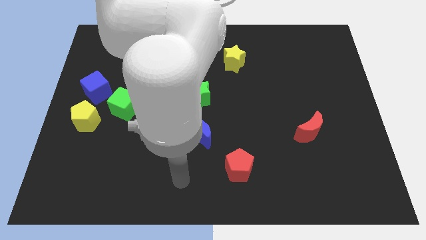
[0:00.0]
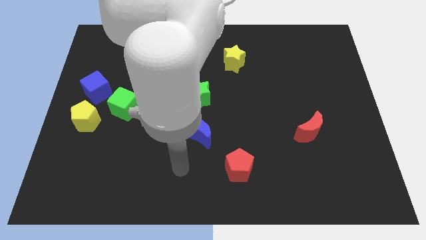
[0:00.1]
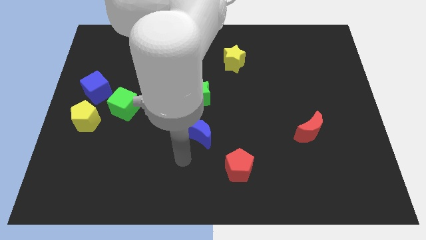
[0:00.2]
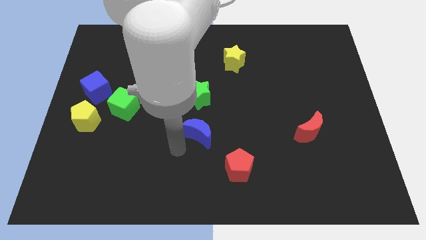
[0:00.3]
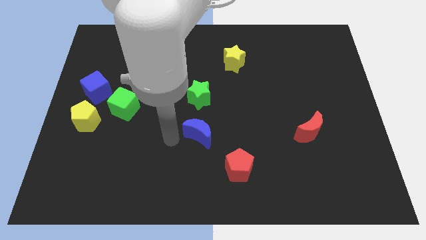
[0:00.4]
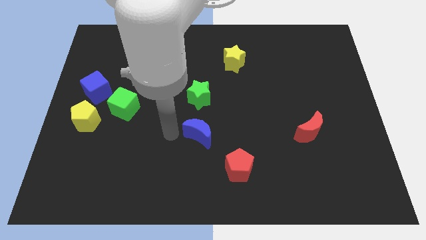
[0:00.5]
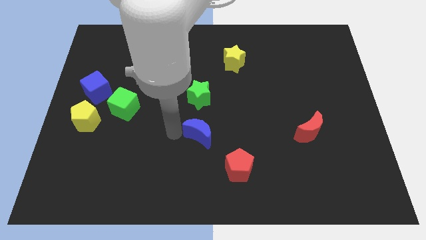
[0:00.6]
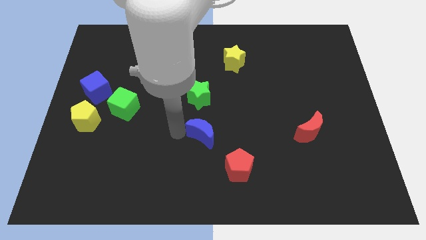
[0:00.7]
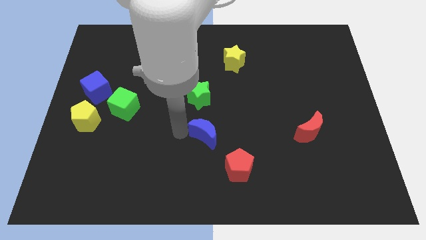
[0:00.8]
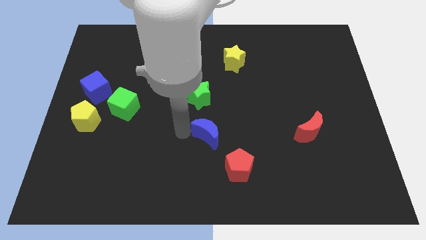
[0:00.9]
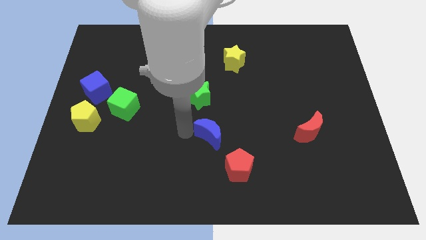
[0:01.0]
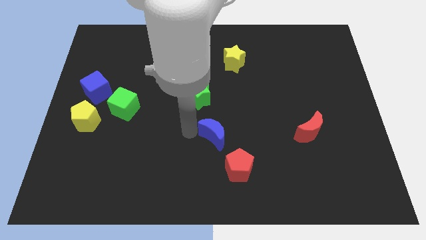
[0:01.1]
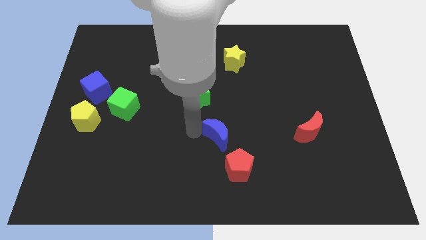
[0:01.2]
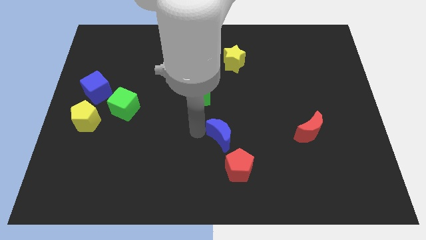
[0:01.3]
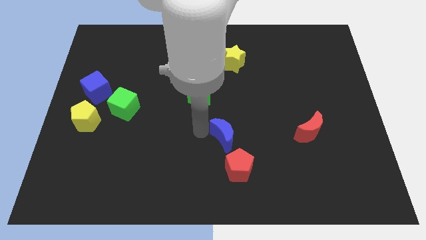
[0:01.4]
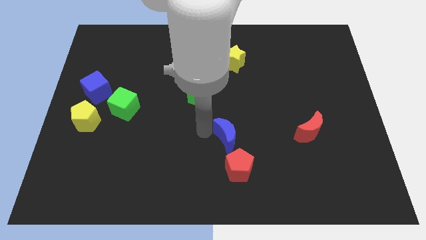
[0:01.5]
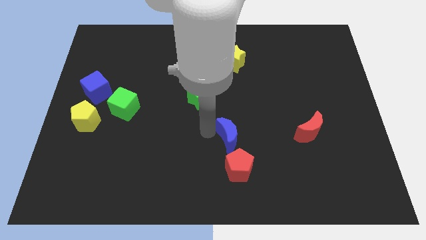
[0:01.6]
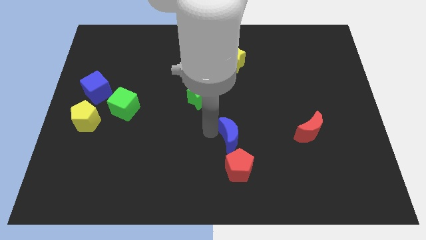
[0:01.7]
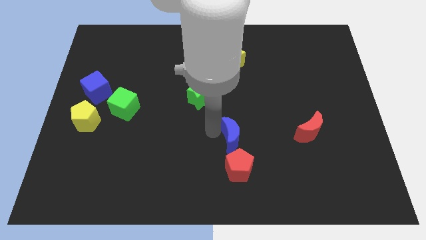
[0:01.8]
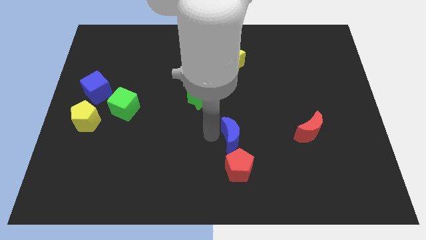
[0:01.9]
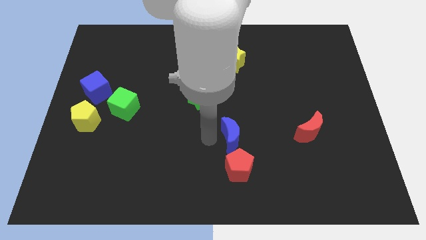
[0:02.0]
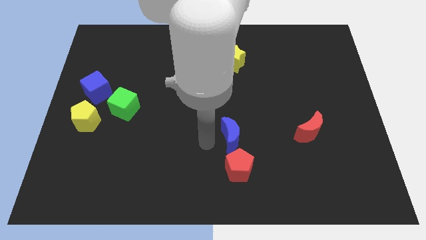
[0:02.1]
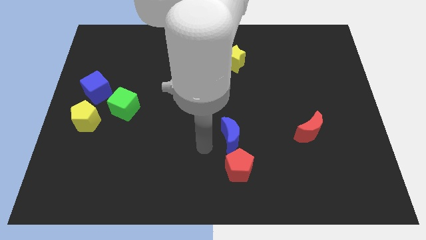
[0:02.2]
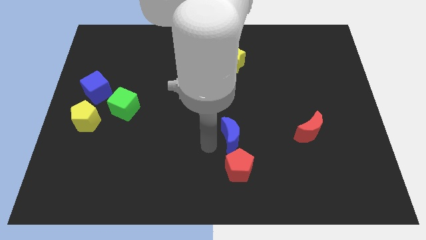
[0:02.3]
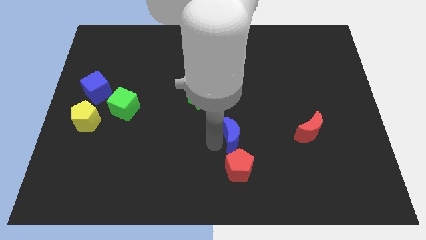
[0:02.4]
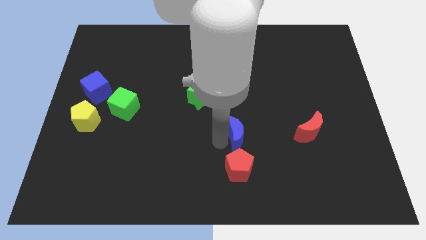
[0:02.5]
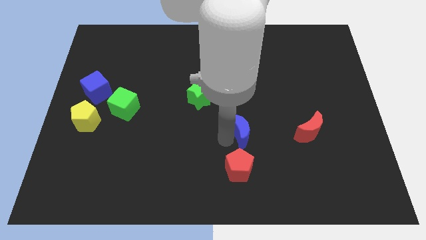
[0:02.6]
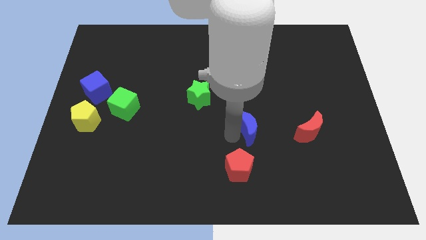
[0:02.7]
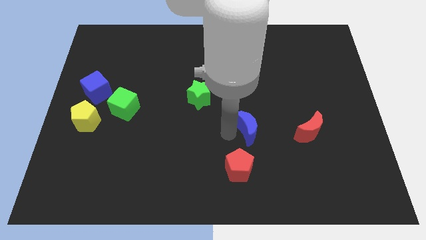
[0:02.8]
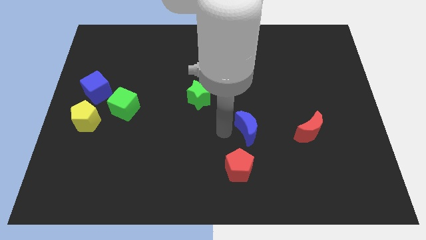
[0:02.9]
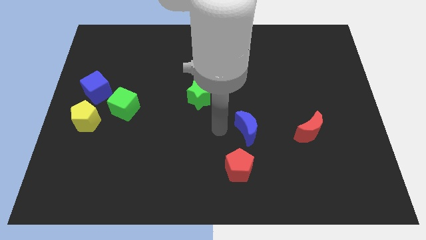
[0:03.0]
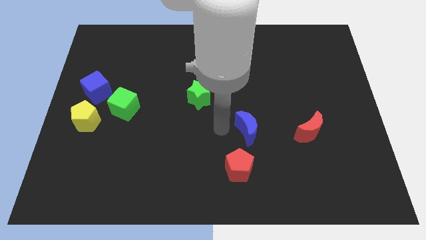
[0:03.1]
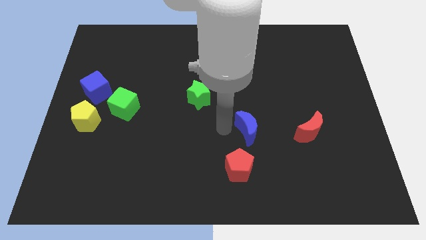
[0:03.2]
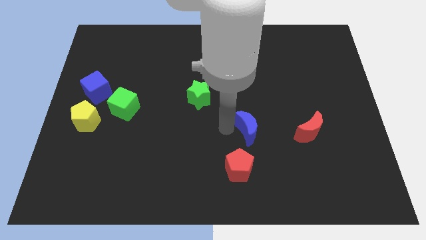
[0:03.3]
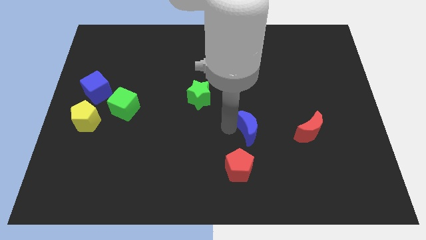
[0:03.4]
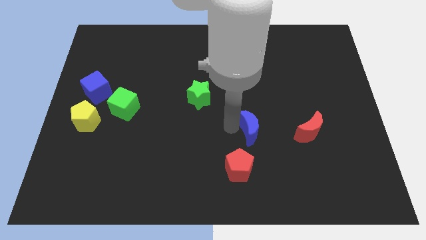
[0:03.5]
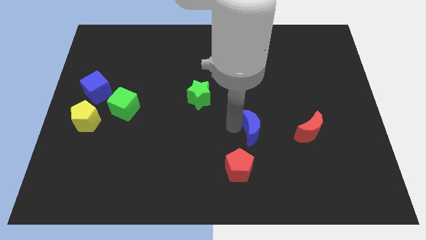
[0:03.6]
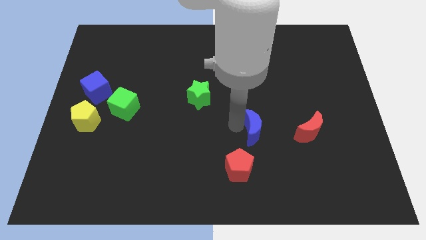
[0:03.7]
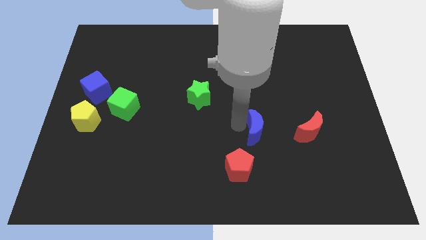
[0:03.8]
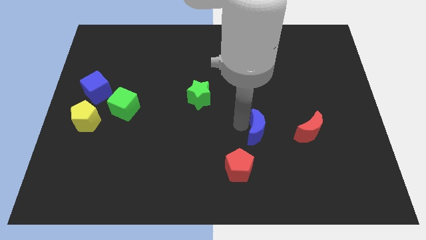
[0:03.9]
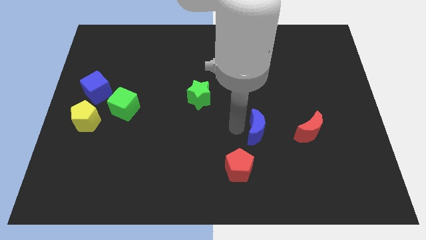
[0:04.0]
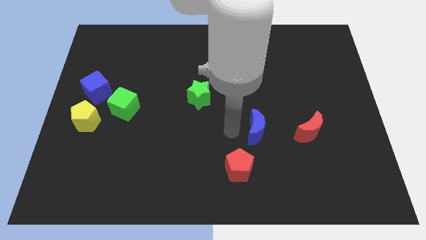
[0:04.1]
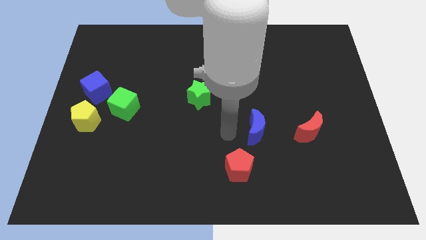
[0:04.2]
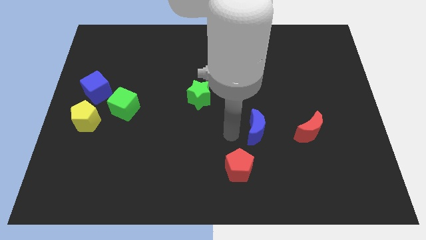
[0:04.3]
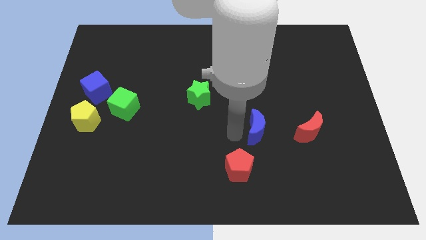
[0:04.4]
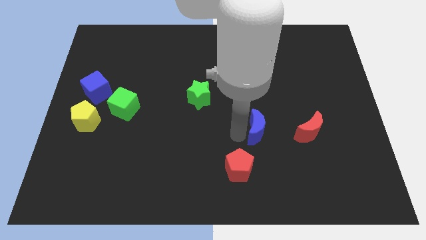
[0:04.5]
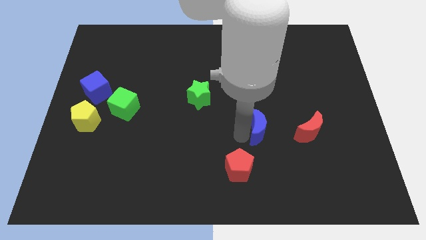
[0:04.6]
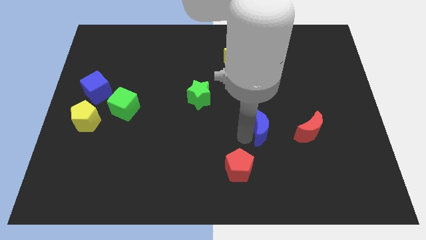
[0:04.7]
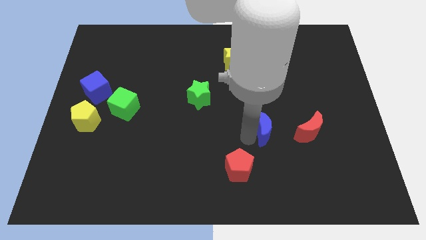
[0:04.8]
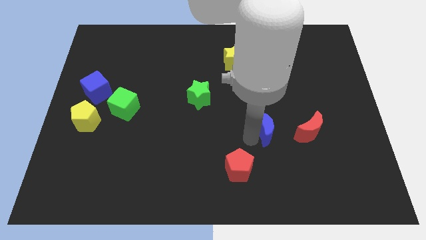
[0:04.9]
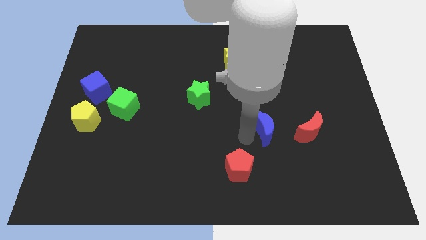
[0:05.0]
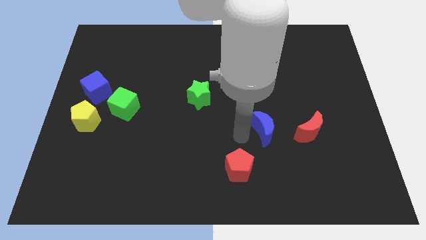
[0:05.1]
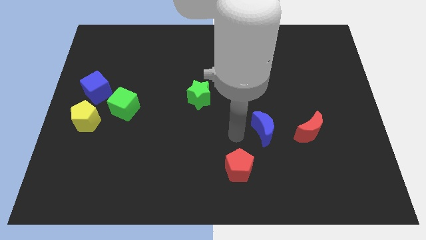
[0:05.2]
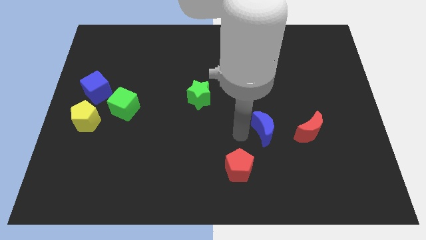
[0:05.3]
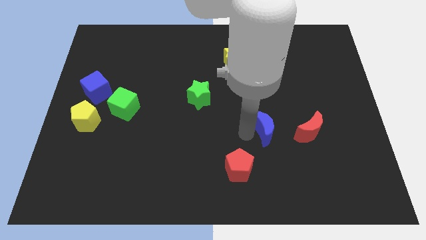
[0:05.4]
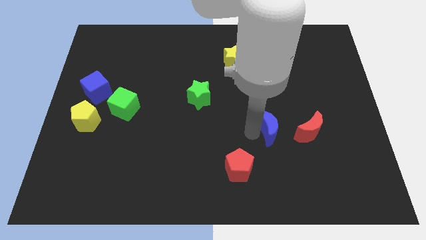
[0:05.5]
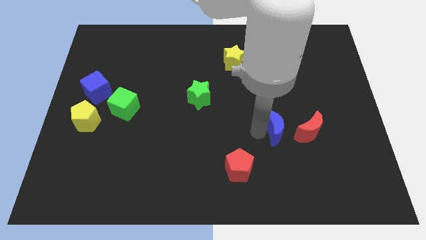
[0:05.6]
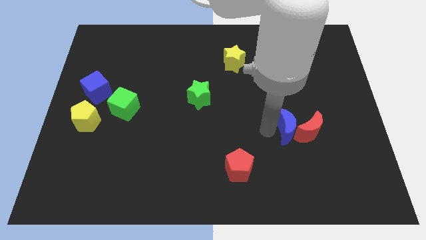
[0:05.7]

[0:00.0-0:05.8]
move the blue moon to the red moon

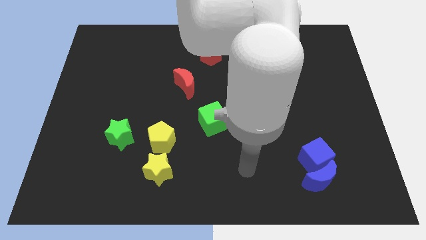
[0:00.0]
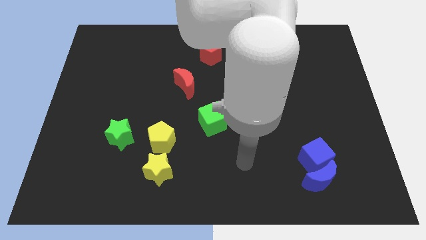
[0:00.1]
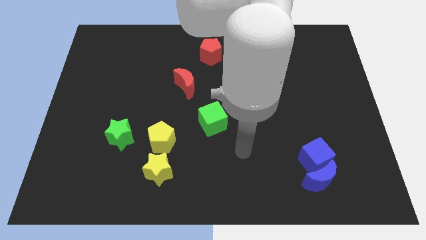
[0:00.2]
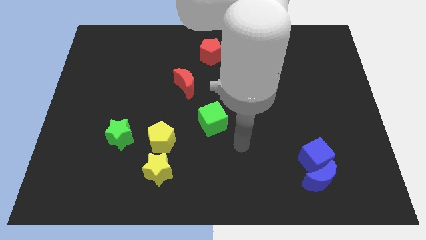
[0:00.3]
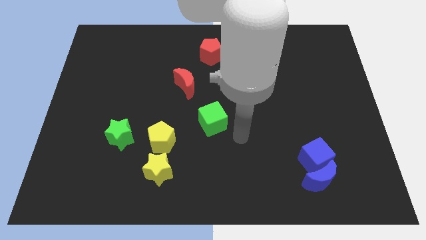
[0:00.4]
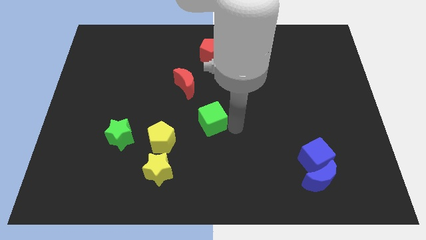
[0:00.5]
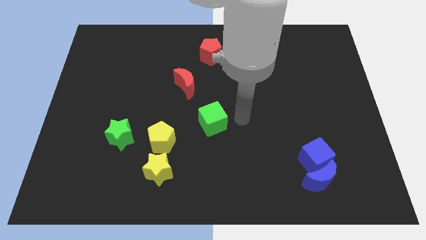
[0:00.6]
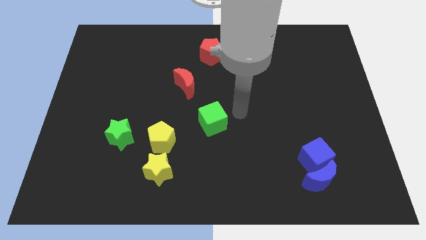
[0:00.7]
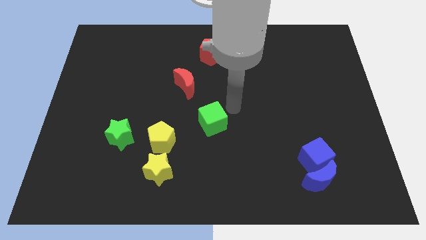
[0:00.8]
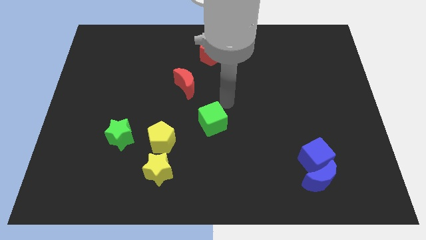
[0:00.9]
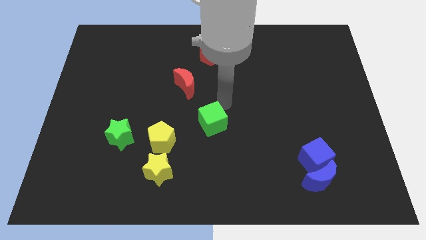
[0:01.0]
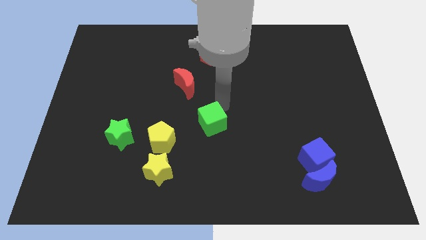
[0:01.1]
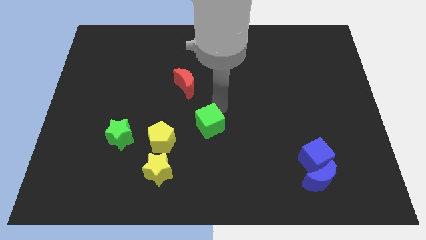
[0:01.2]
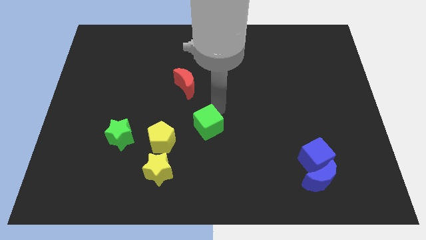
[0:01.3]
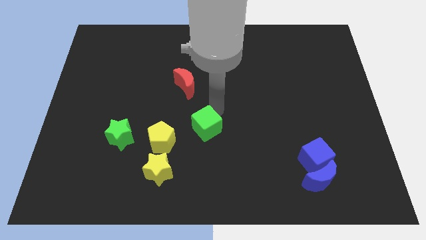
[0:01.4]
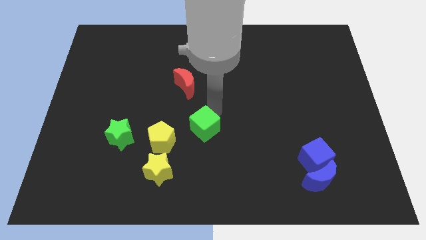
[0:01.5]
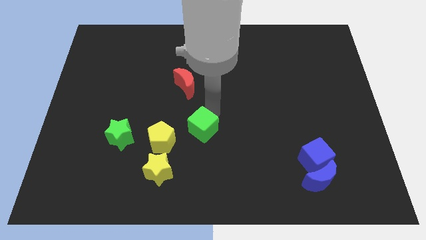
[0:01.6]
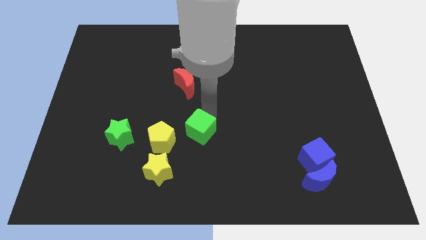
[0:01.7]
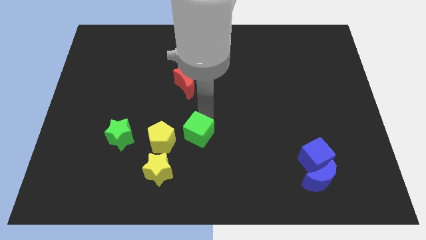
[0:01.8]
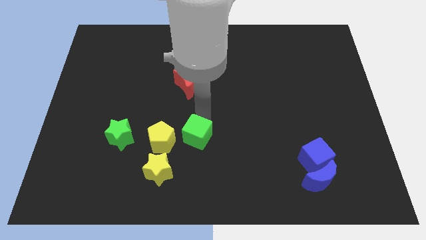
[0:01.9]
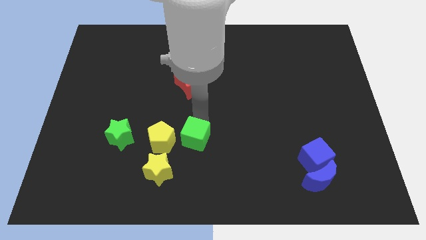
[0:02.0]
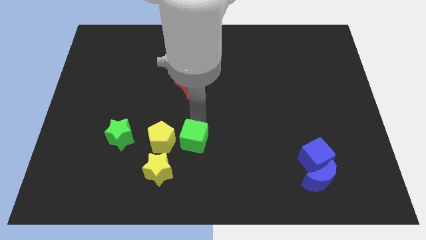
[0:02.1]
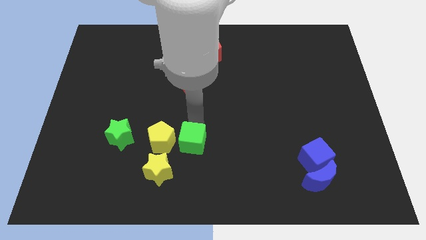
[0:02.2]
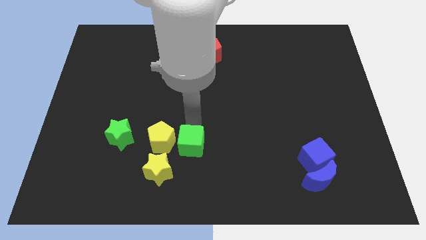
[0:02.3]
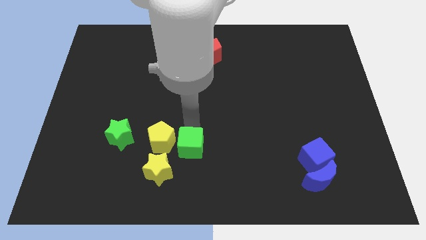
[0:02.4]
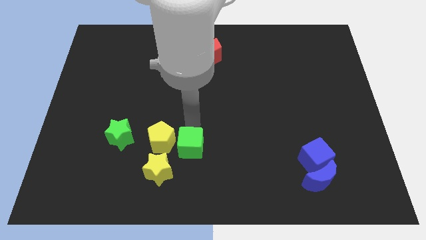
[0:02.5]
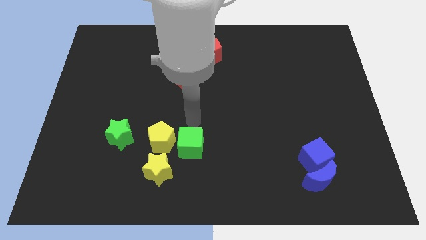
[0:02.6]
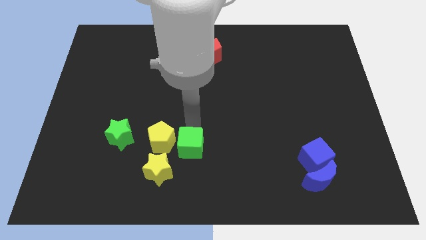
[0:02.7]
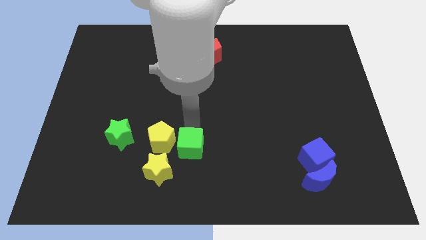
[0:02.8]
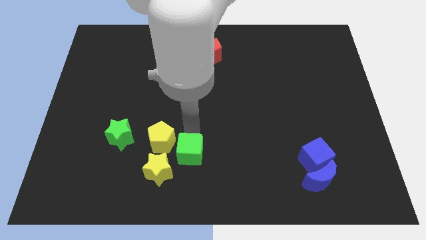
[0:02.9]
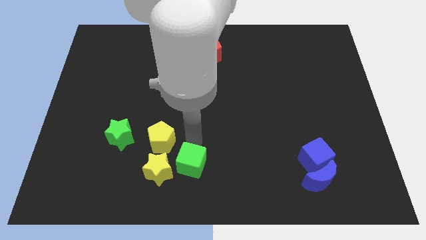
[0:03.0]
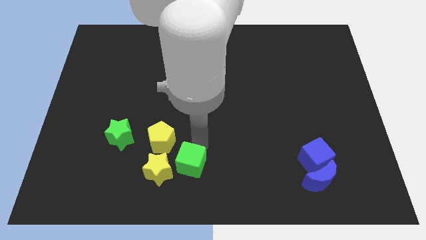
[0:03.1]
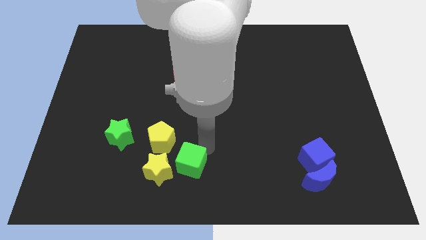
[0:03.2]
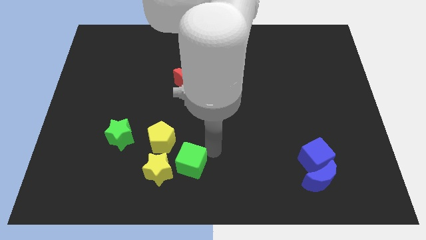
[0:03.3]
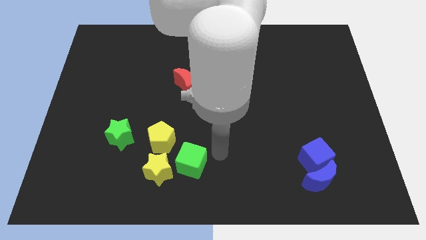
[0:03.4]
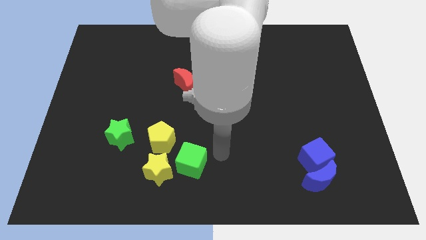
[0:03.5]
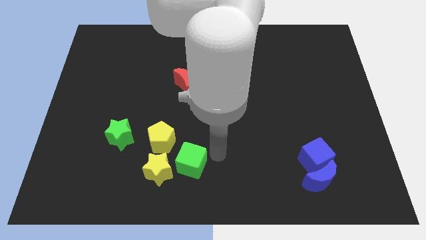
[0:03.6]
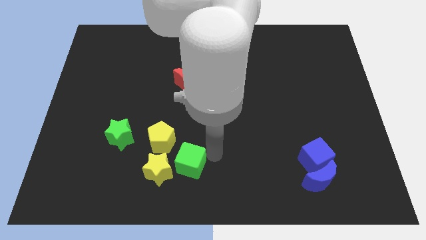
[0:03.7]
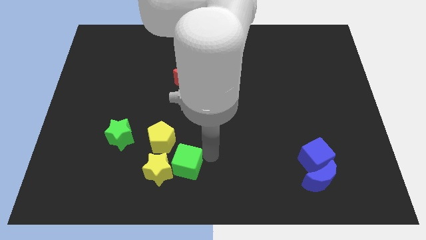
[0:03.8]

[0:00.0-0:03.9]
move the green cube next to the yellow star
